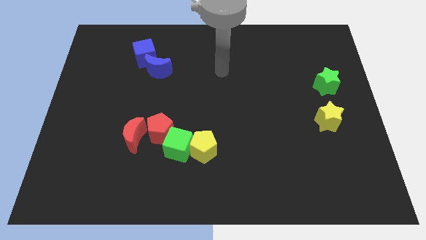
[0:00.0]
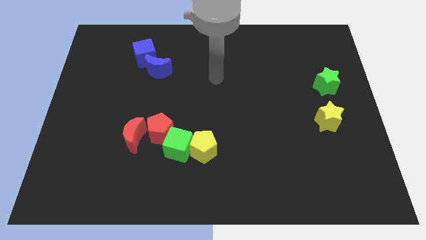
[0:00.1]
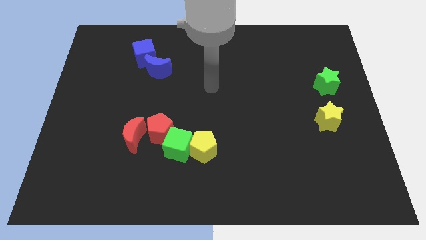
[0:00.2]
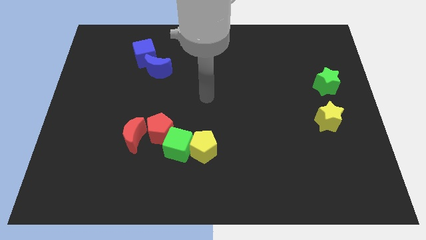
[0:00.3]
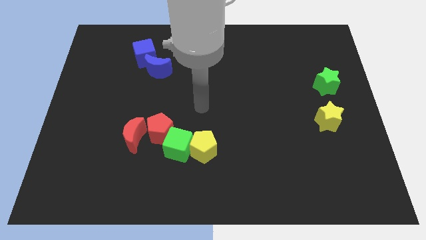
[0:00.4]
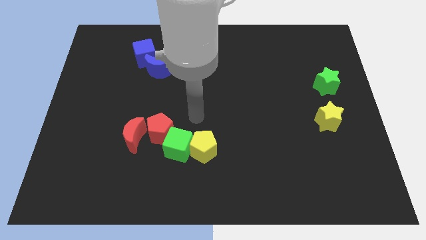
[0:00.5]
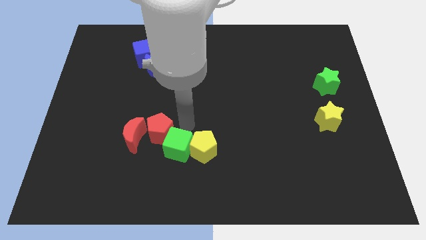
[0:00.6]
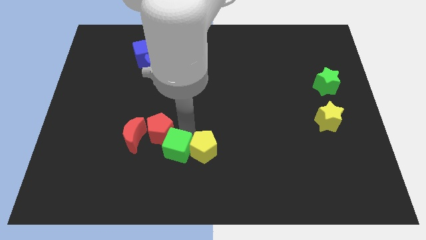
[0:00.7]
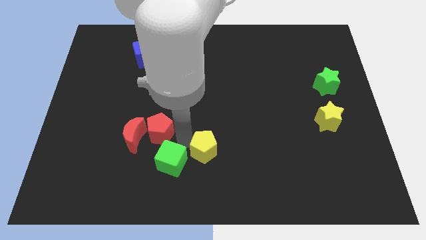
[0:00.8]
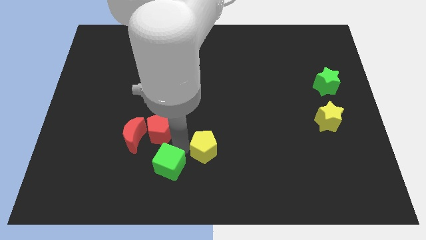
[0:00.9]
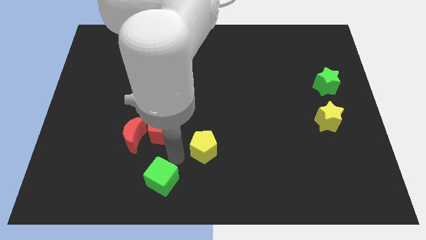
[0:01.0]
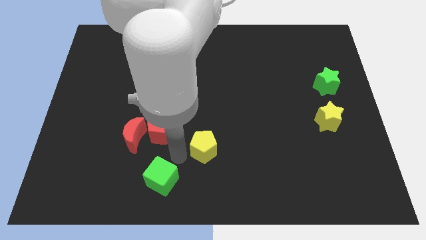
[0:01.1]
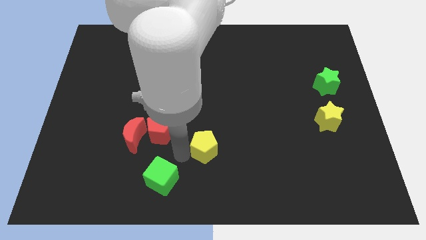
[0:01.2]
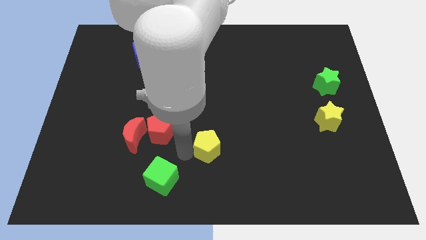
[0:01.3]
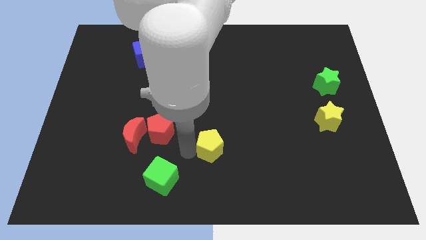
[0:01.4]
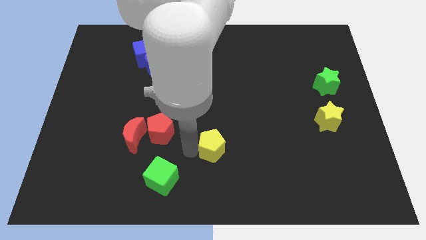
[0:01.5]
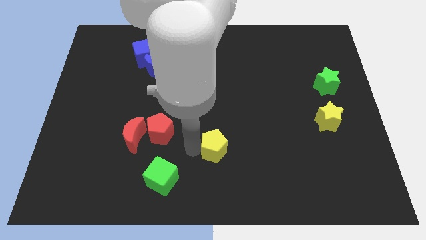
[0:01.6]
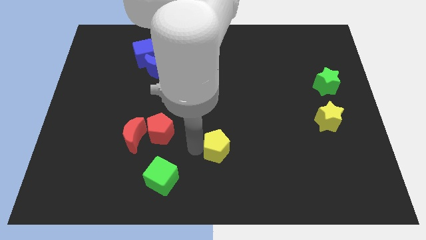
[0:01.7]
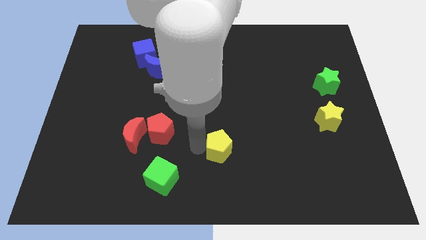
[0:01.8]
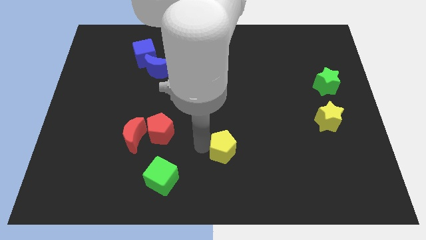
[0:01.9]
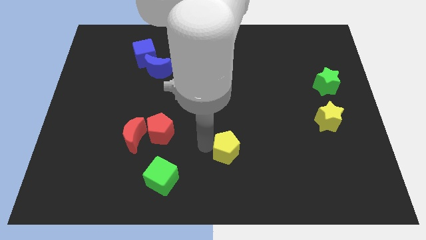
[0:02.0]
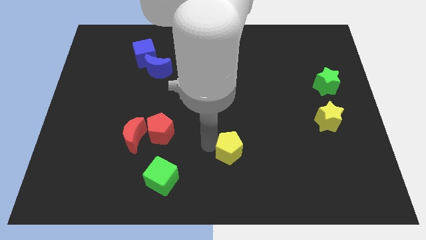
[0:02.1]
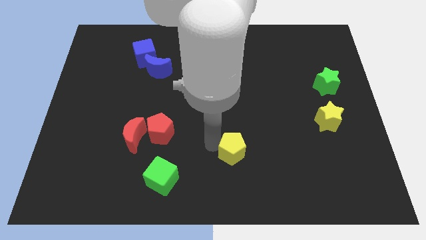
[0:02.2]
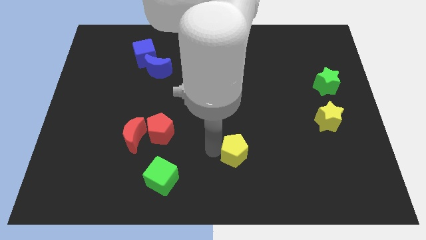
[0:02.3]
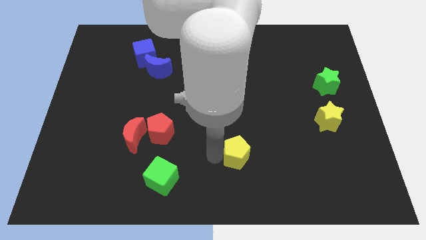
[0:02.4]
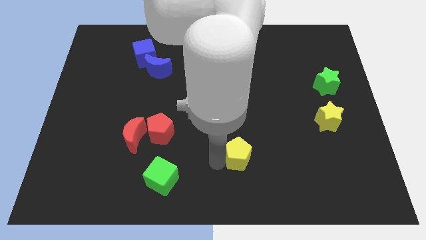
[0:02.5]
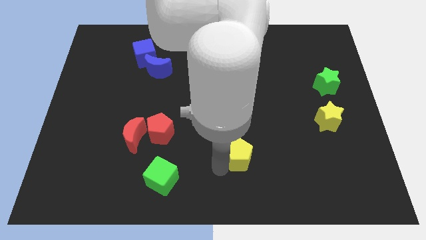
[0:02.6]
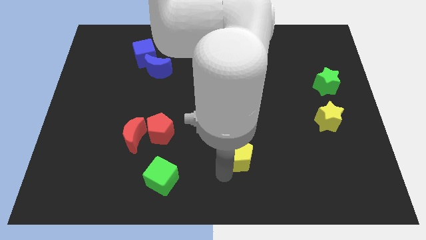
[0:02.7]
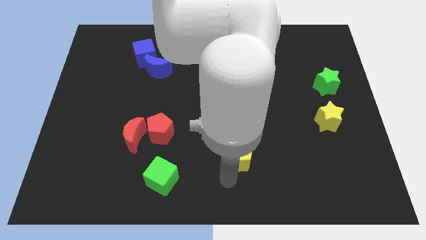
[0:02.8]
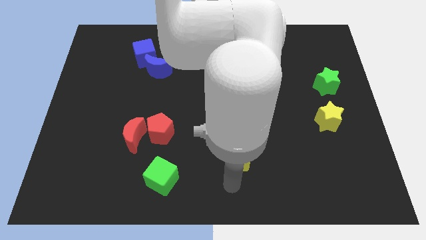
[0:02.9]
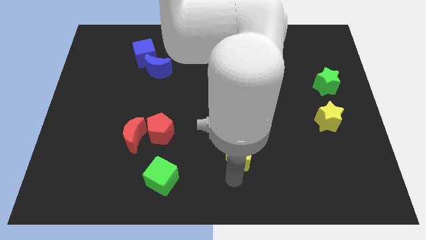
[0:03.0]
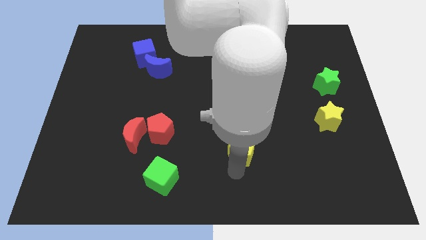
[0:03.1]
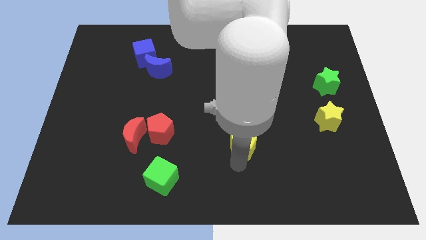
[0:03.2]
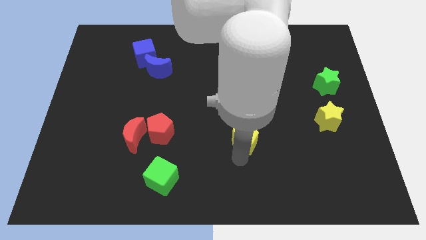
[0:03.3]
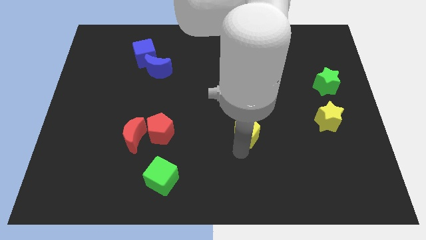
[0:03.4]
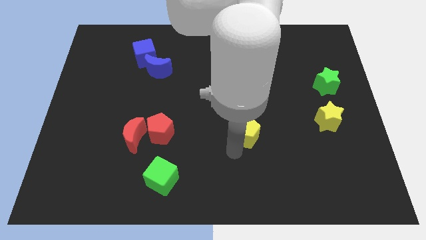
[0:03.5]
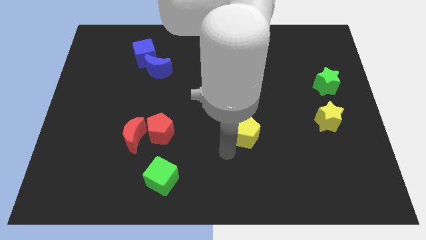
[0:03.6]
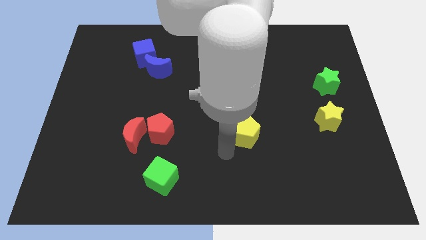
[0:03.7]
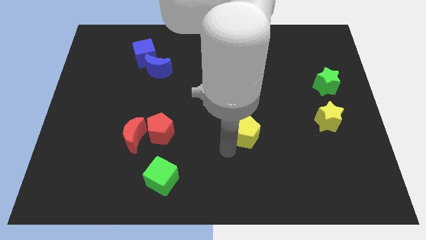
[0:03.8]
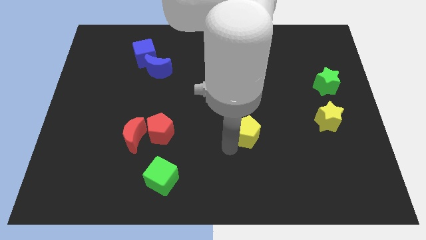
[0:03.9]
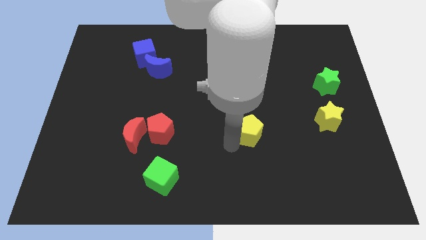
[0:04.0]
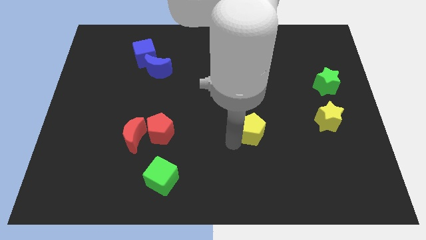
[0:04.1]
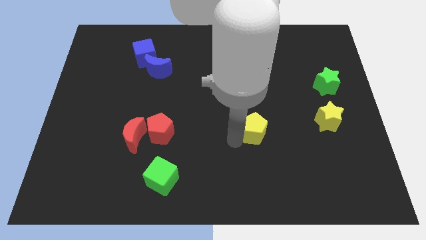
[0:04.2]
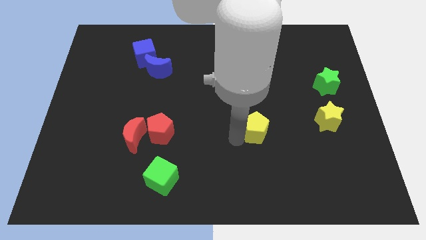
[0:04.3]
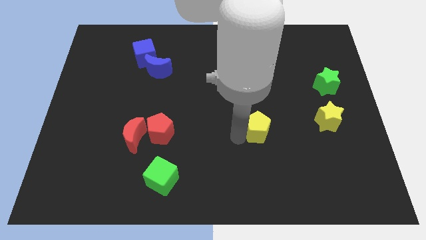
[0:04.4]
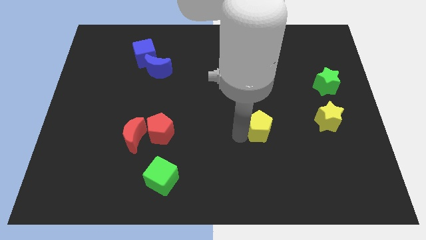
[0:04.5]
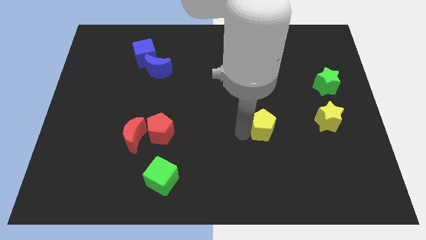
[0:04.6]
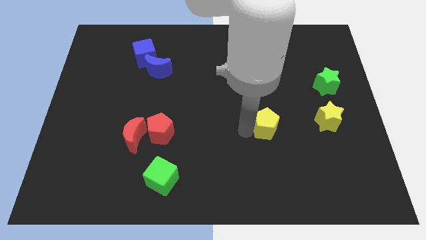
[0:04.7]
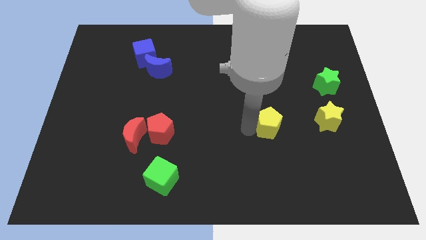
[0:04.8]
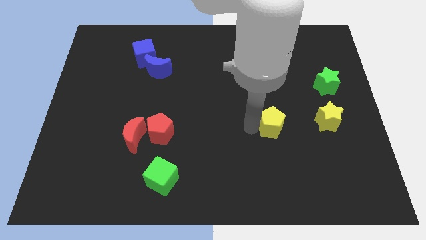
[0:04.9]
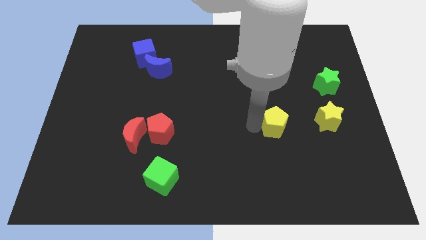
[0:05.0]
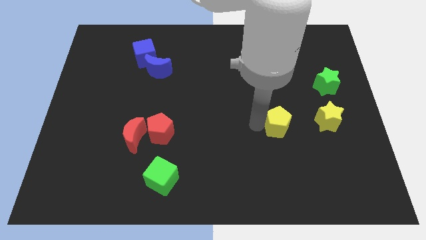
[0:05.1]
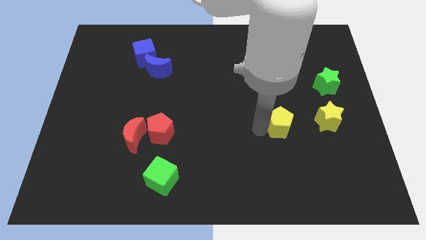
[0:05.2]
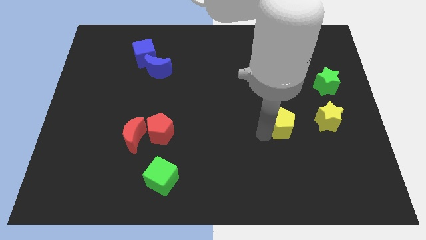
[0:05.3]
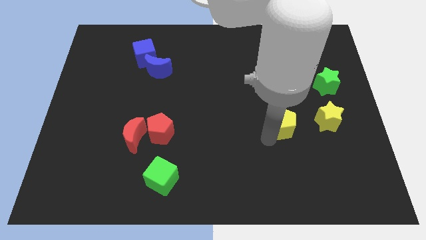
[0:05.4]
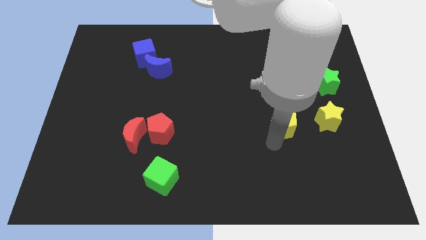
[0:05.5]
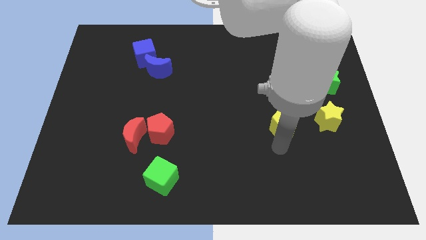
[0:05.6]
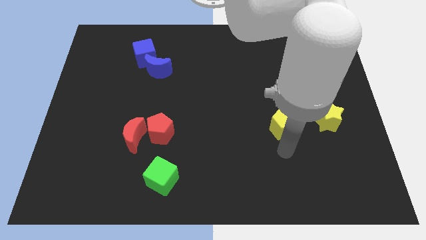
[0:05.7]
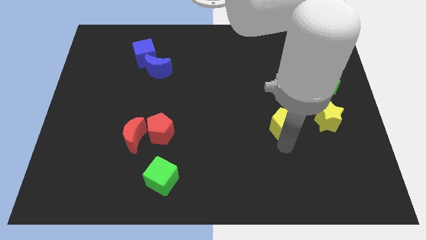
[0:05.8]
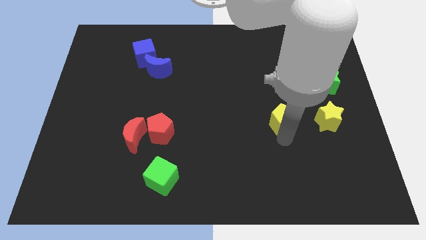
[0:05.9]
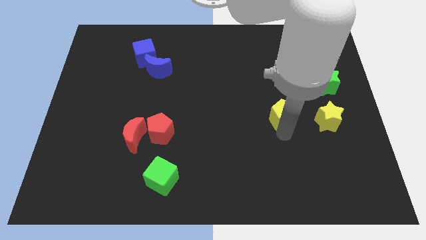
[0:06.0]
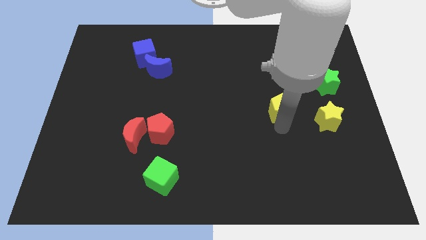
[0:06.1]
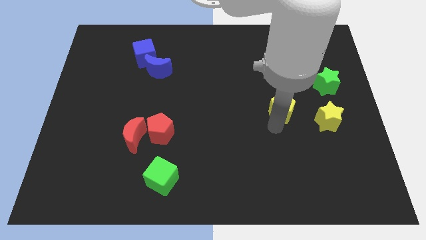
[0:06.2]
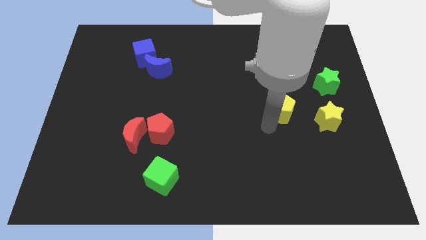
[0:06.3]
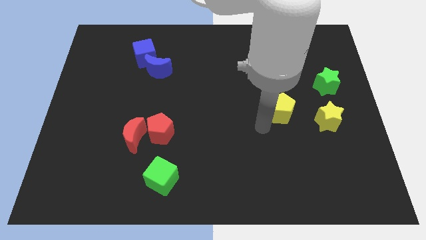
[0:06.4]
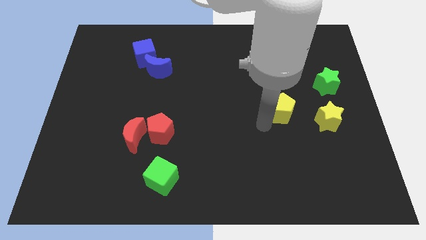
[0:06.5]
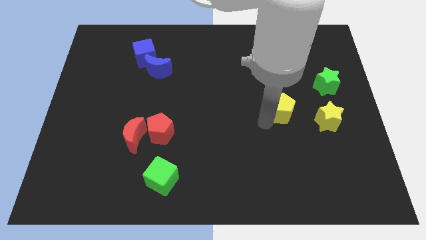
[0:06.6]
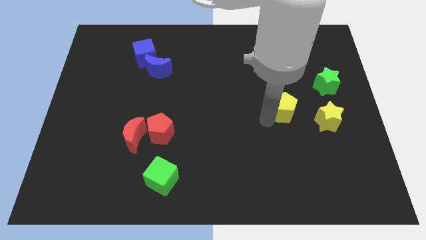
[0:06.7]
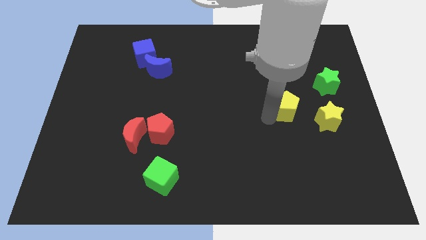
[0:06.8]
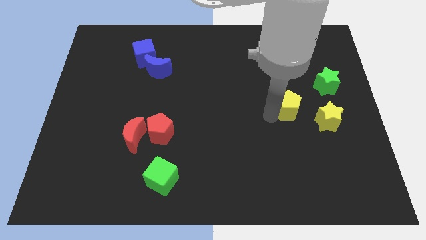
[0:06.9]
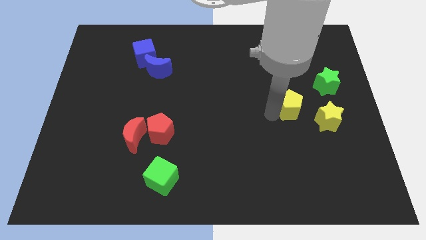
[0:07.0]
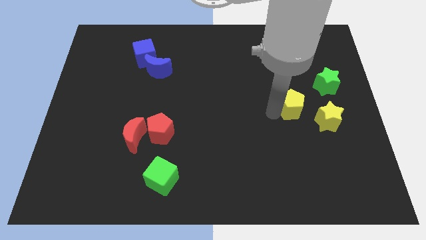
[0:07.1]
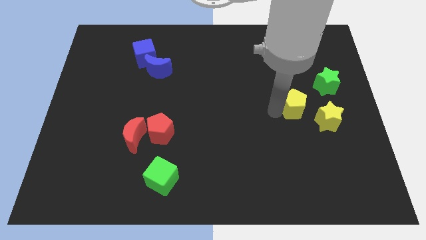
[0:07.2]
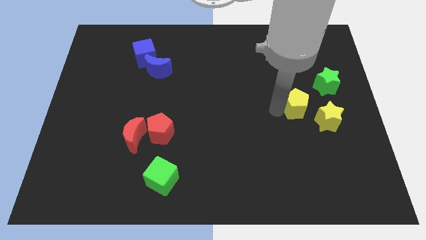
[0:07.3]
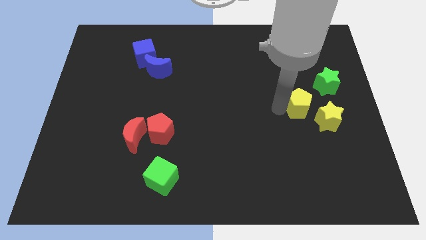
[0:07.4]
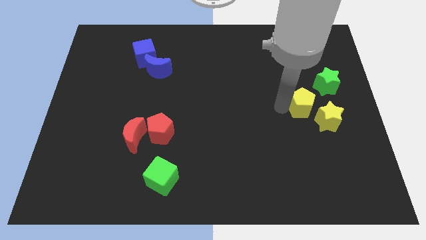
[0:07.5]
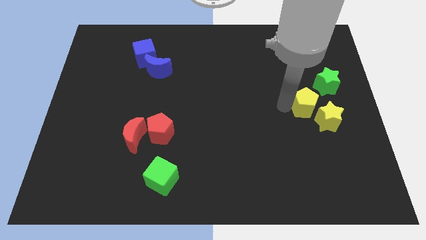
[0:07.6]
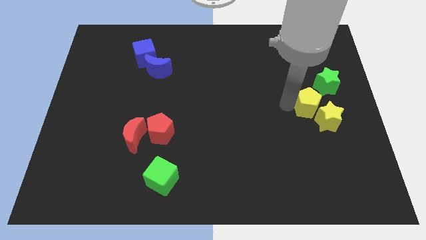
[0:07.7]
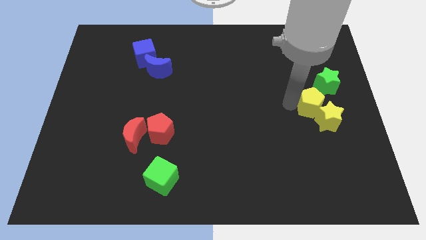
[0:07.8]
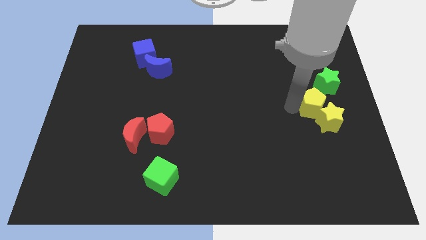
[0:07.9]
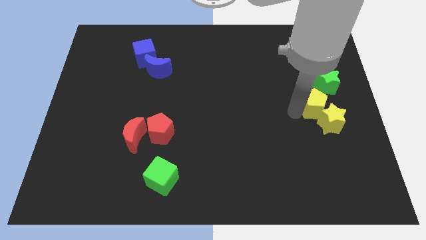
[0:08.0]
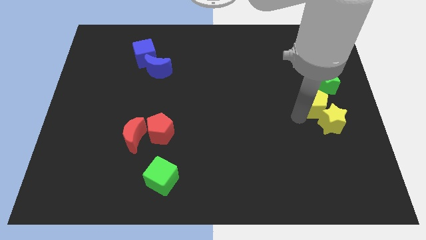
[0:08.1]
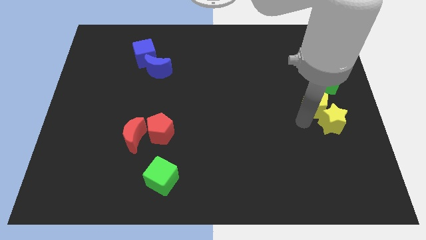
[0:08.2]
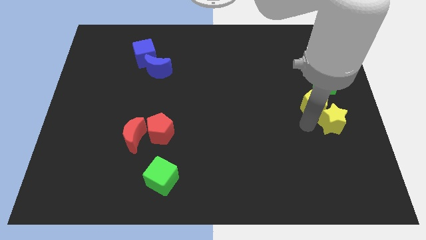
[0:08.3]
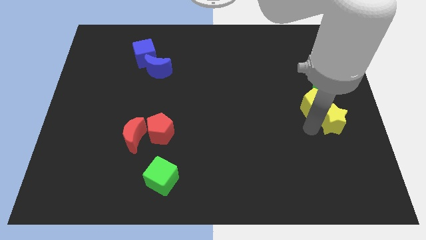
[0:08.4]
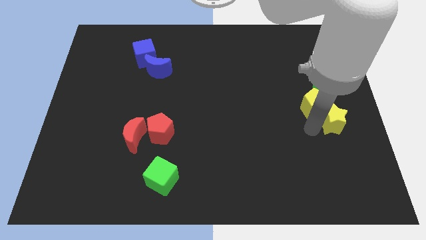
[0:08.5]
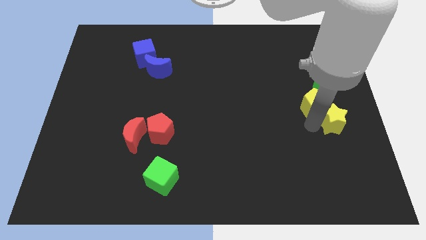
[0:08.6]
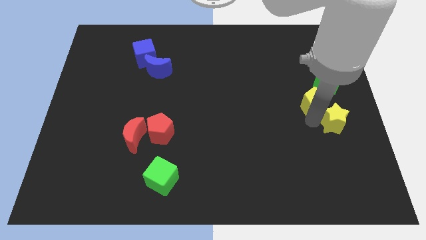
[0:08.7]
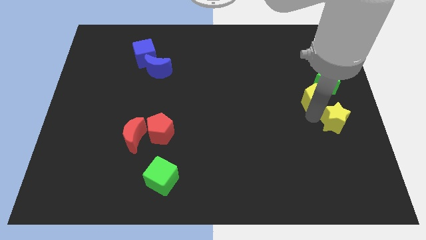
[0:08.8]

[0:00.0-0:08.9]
slide the yellow pentagon close to the green star
